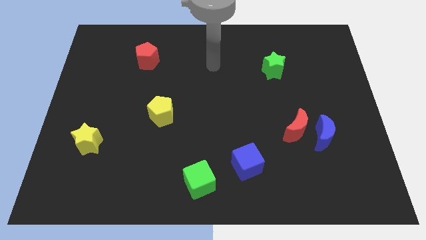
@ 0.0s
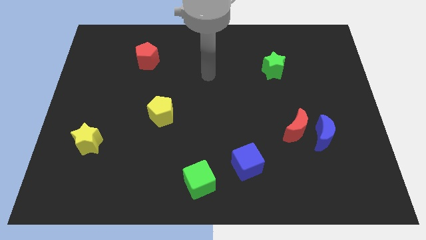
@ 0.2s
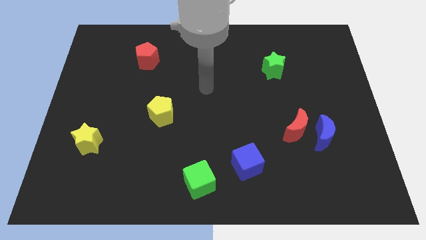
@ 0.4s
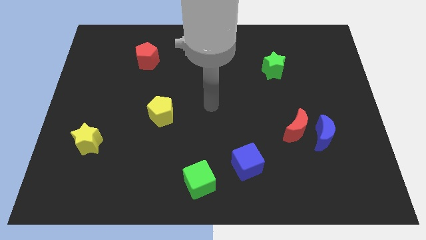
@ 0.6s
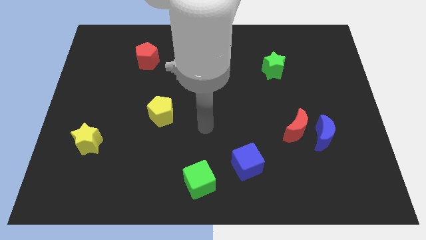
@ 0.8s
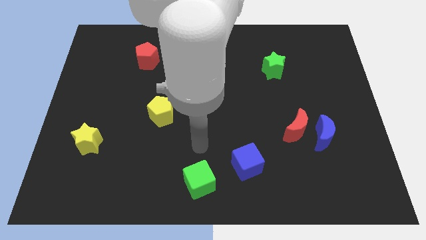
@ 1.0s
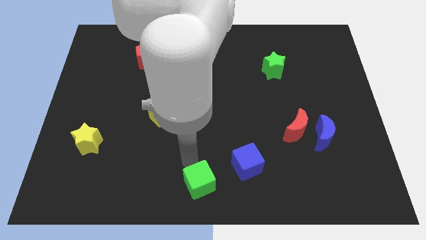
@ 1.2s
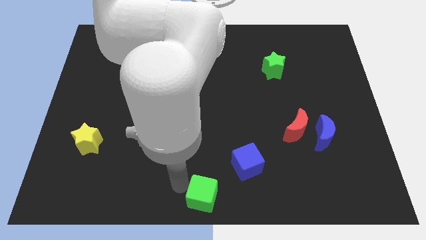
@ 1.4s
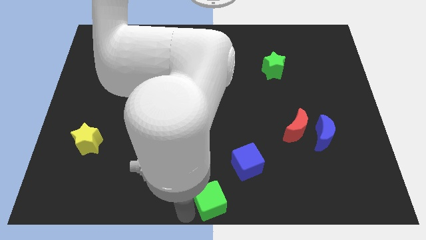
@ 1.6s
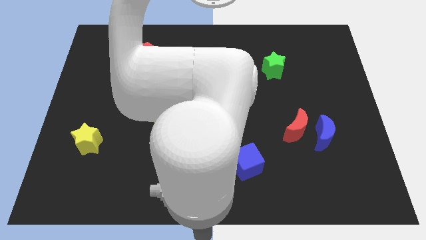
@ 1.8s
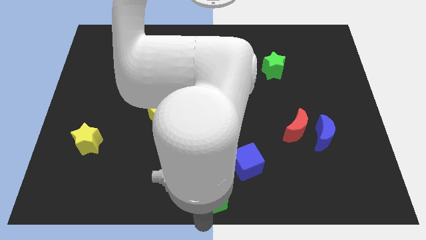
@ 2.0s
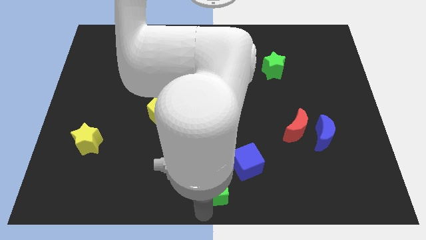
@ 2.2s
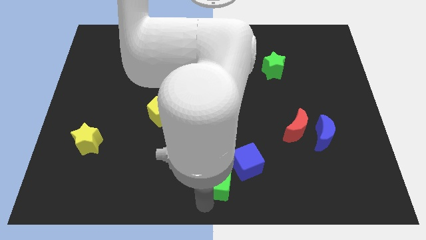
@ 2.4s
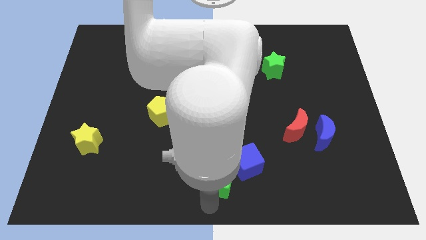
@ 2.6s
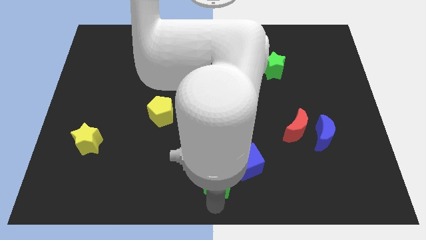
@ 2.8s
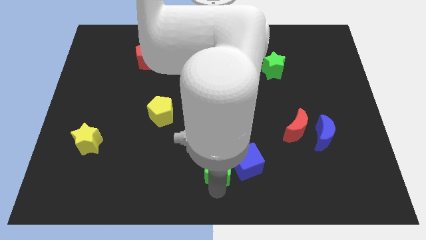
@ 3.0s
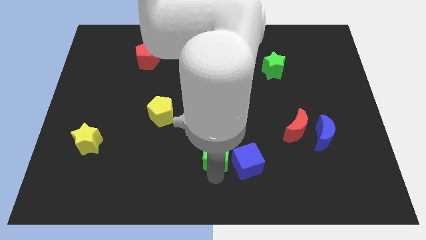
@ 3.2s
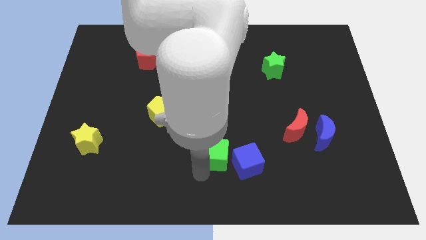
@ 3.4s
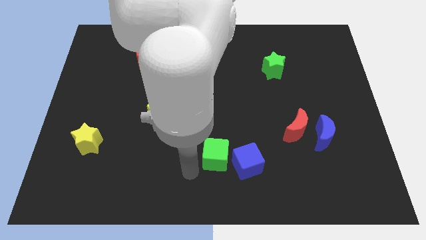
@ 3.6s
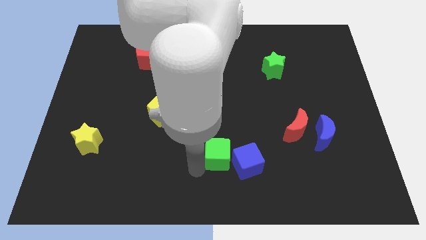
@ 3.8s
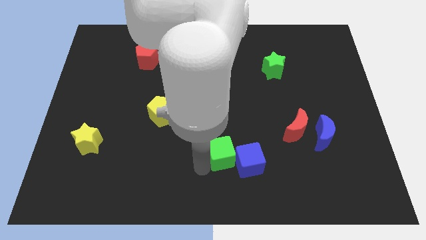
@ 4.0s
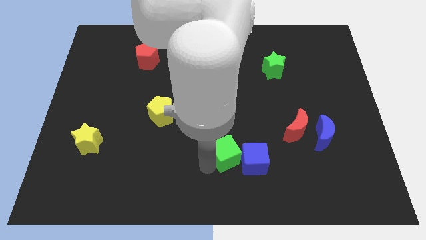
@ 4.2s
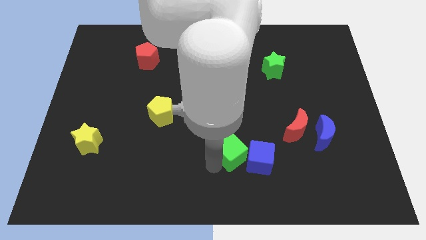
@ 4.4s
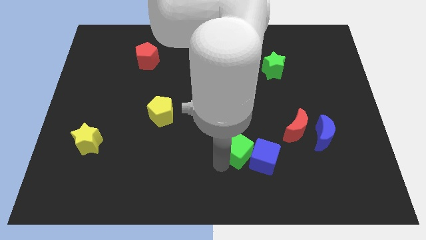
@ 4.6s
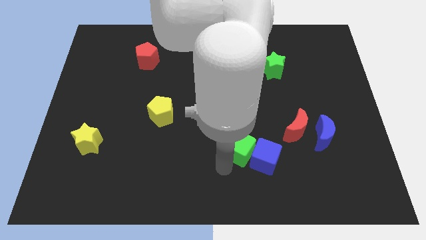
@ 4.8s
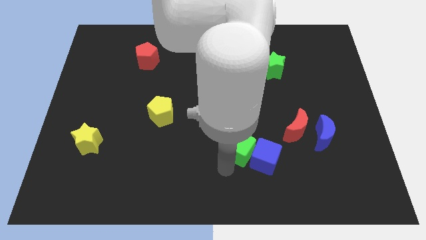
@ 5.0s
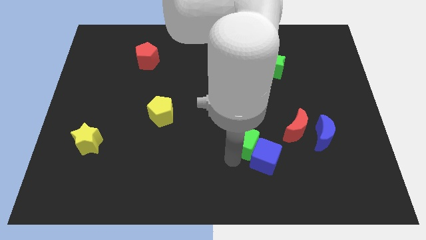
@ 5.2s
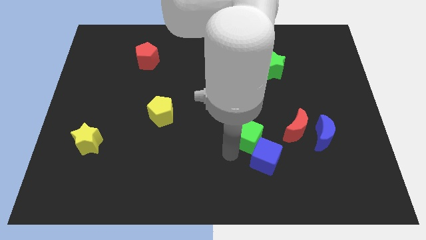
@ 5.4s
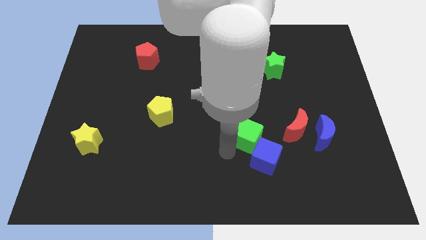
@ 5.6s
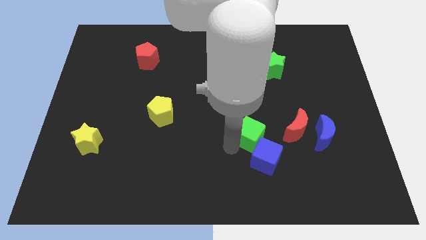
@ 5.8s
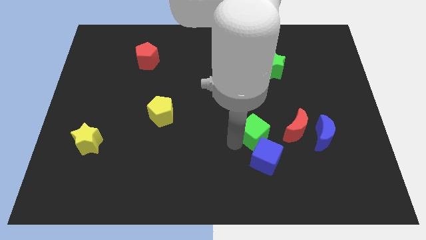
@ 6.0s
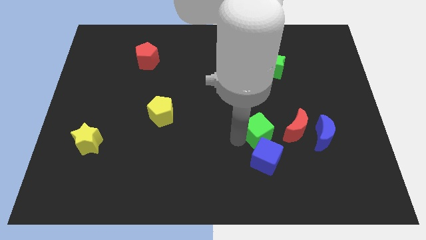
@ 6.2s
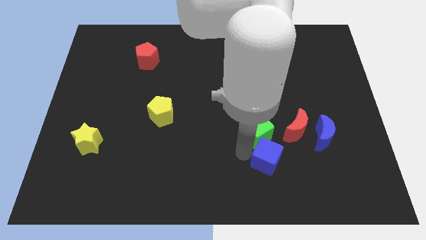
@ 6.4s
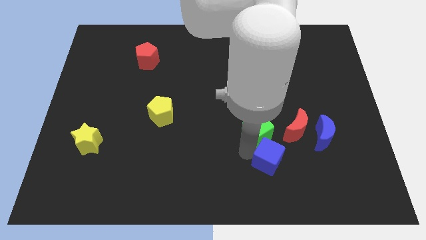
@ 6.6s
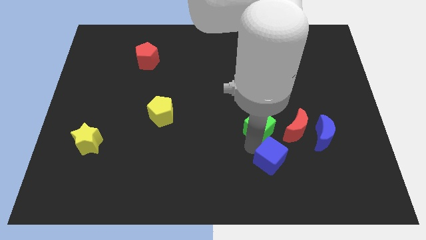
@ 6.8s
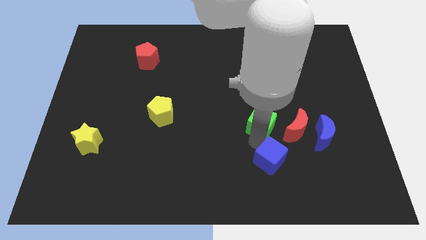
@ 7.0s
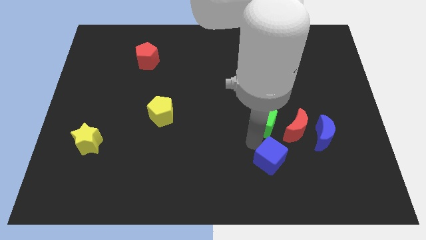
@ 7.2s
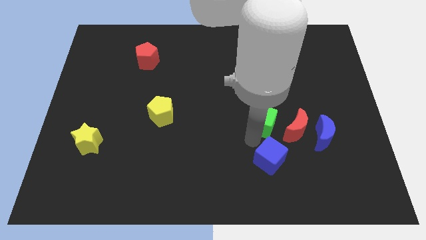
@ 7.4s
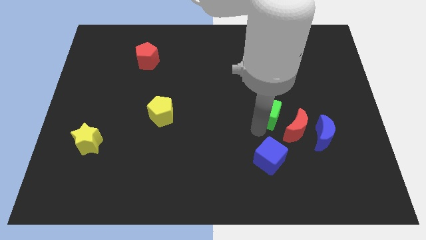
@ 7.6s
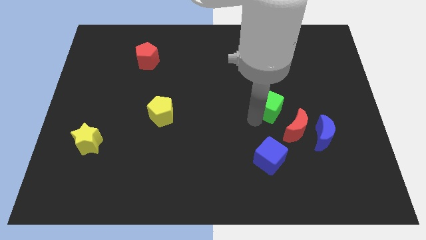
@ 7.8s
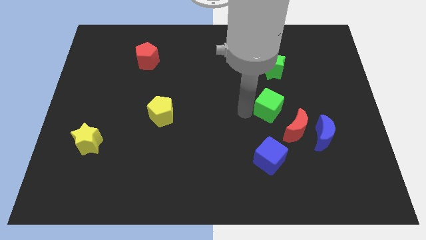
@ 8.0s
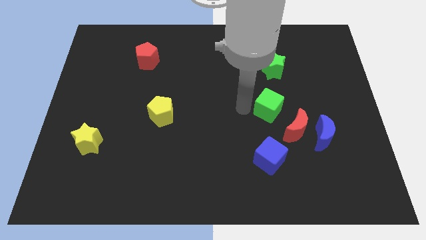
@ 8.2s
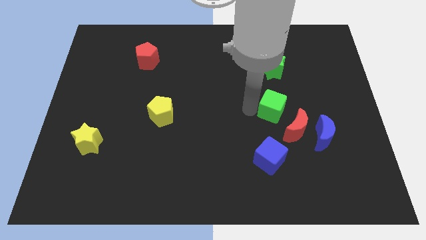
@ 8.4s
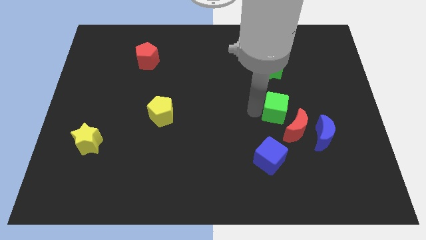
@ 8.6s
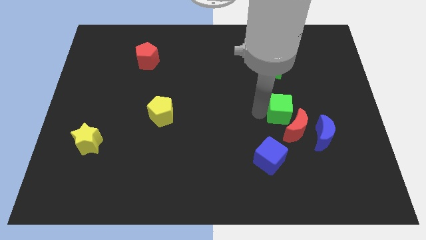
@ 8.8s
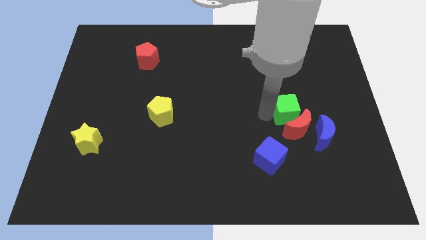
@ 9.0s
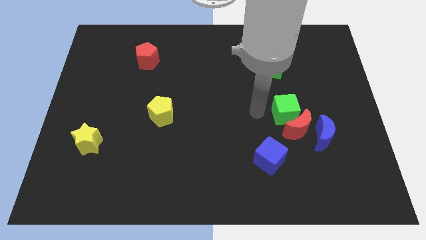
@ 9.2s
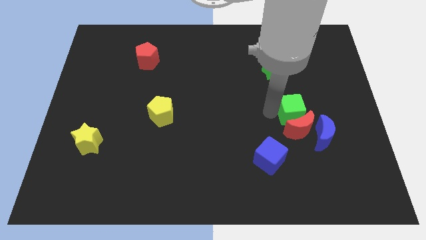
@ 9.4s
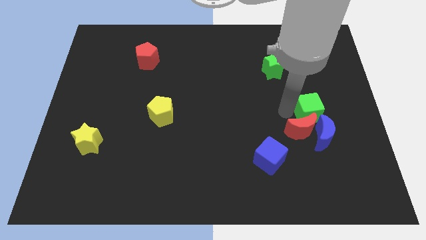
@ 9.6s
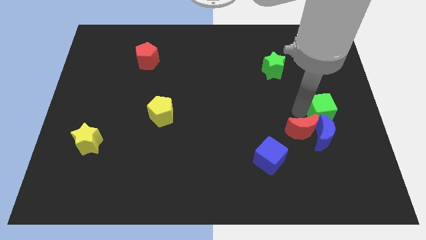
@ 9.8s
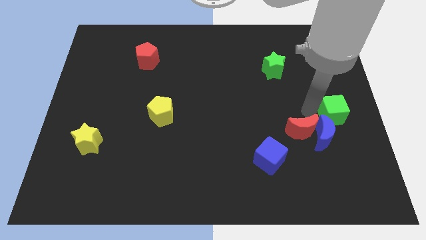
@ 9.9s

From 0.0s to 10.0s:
put the green cube to the right side

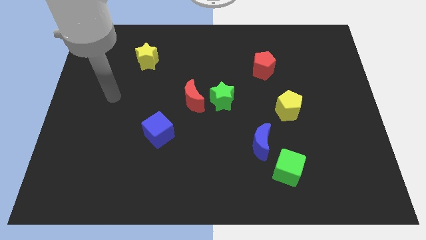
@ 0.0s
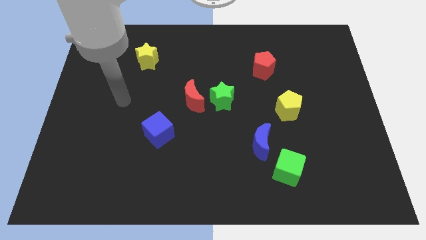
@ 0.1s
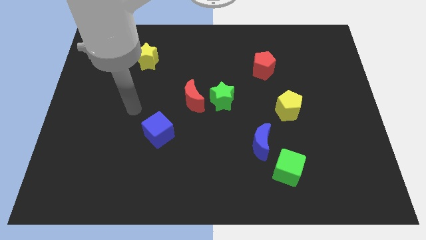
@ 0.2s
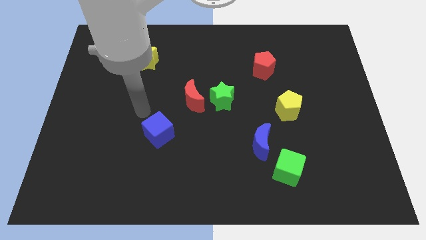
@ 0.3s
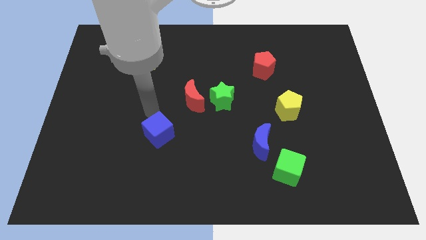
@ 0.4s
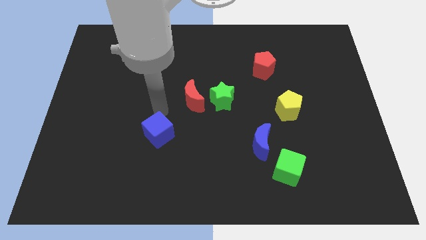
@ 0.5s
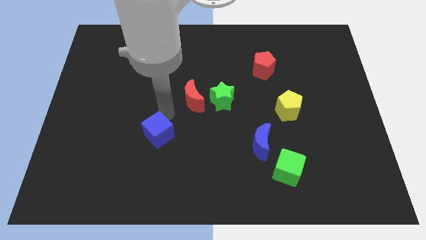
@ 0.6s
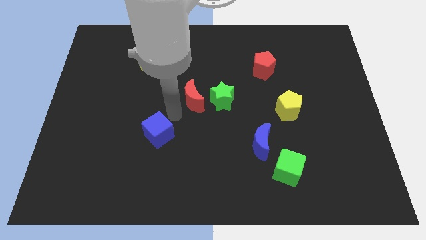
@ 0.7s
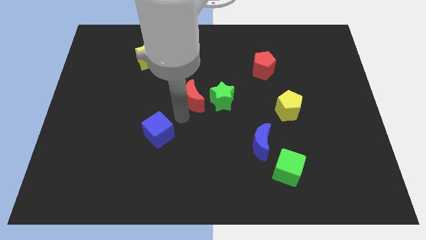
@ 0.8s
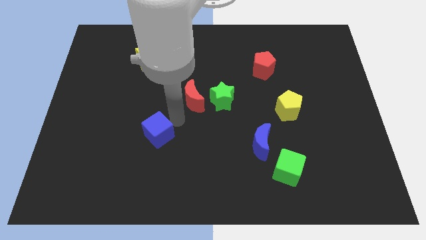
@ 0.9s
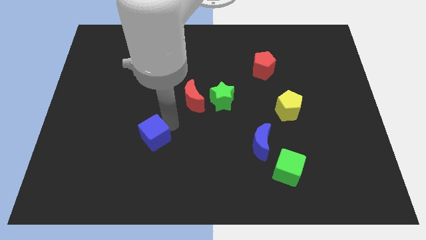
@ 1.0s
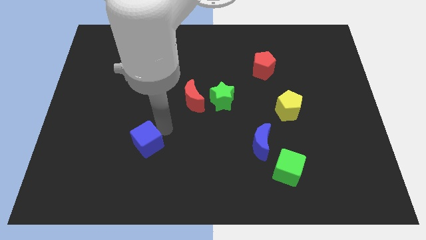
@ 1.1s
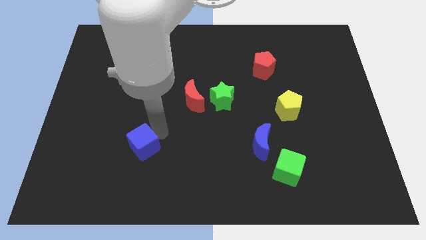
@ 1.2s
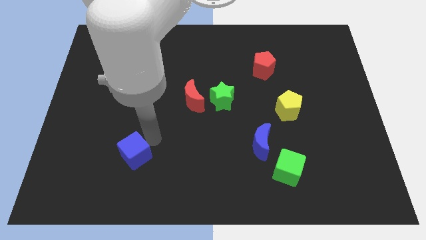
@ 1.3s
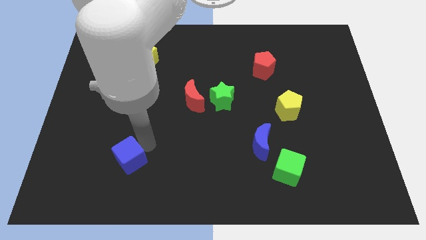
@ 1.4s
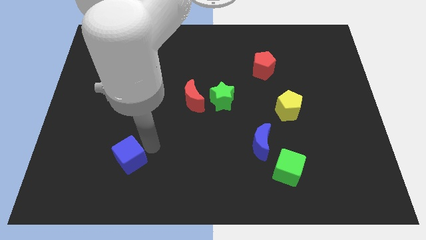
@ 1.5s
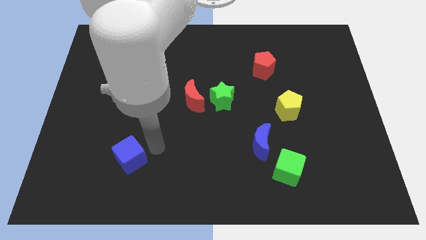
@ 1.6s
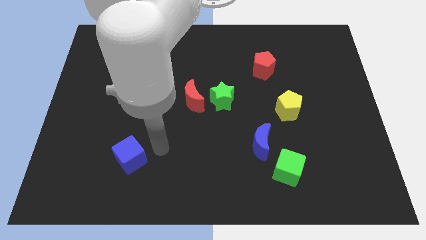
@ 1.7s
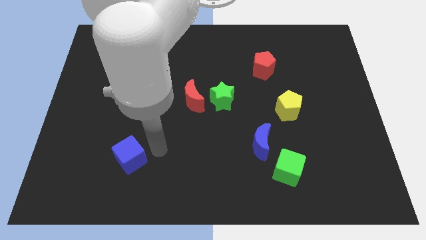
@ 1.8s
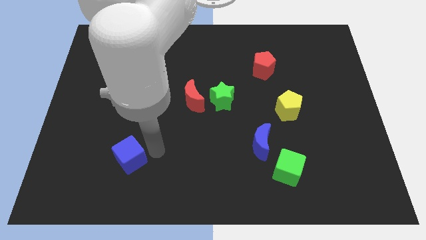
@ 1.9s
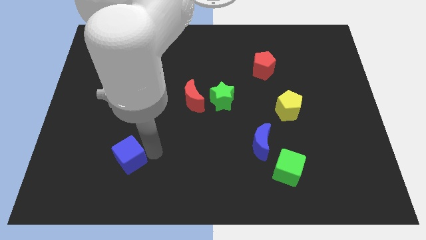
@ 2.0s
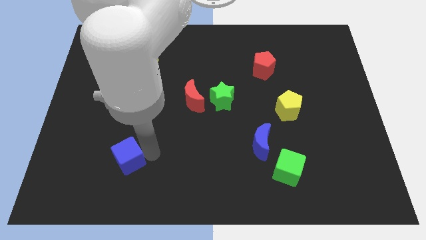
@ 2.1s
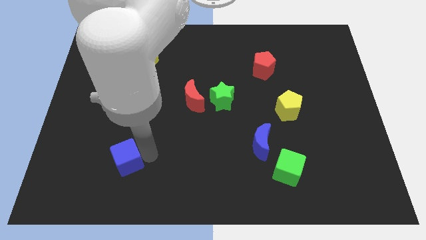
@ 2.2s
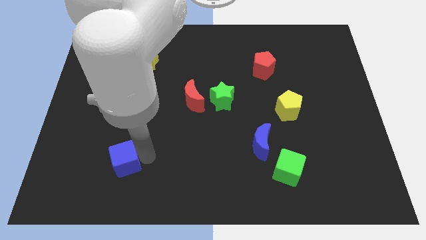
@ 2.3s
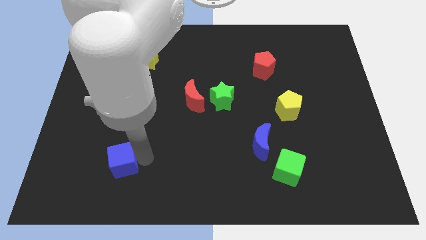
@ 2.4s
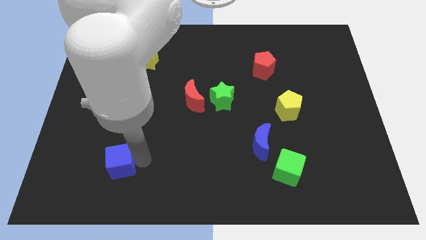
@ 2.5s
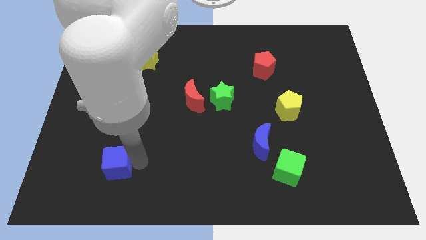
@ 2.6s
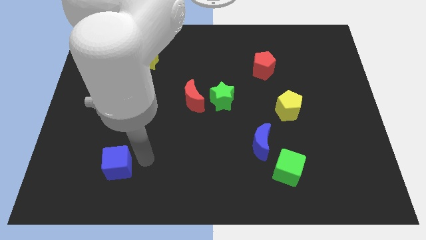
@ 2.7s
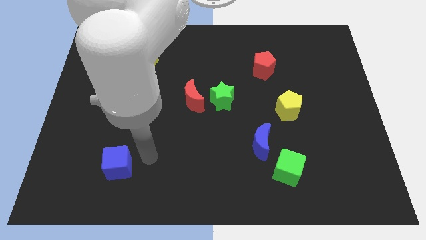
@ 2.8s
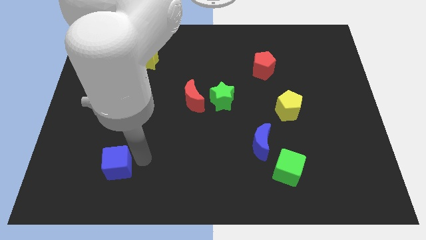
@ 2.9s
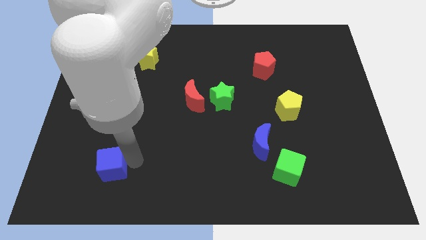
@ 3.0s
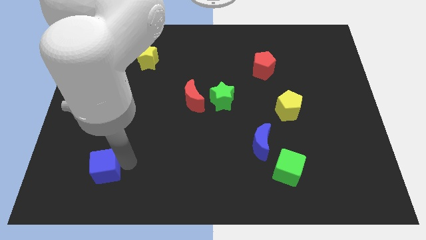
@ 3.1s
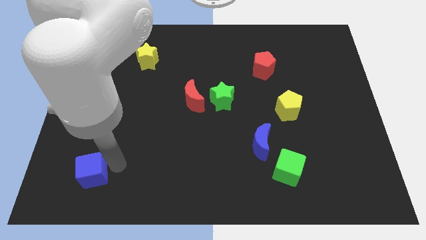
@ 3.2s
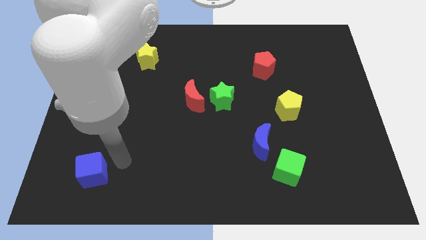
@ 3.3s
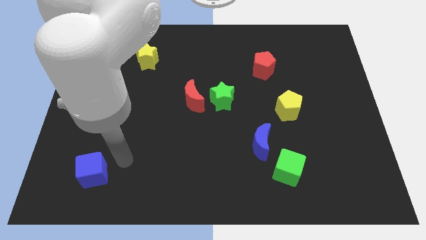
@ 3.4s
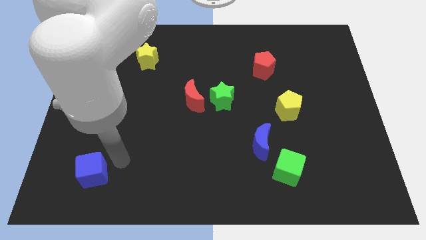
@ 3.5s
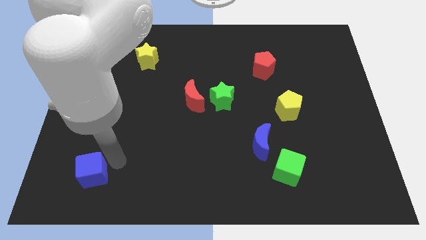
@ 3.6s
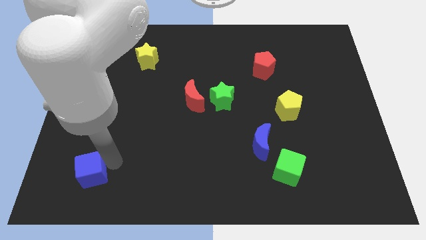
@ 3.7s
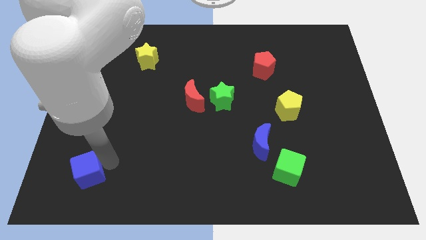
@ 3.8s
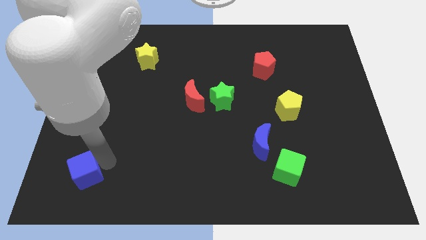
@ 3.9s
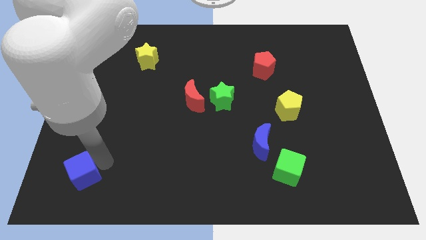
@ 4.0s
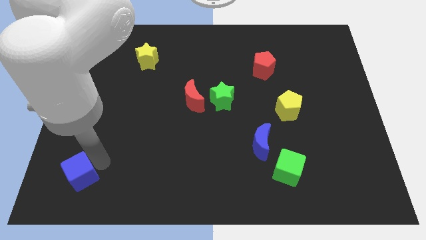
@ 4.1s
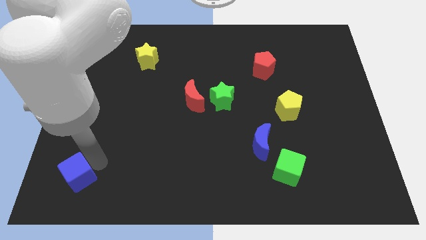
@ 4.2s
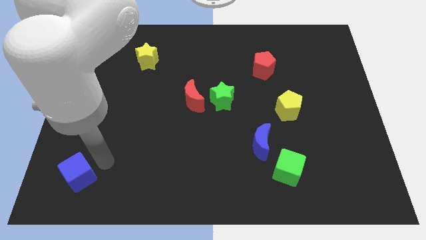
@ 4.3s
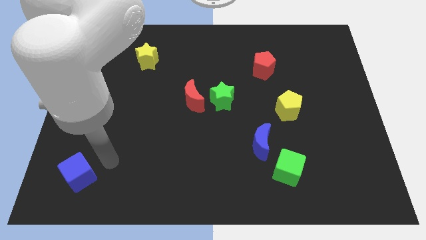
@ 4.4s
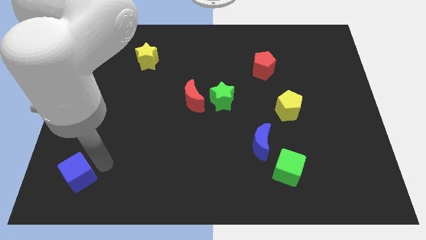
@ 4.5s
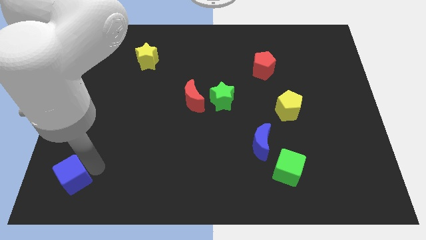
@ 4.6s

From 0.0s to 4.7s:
push the blue cube to the bottom left of the board
